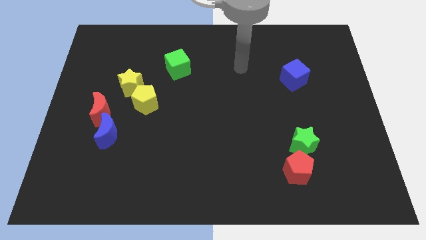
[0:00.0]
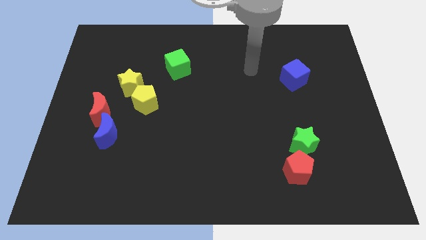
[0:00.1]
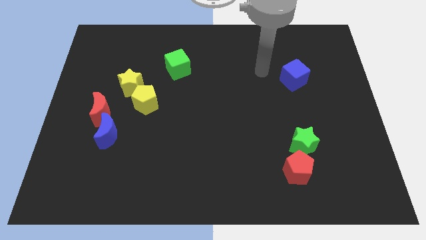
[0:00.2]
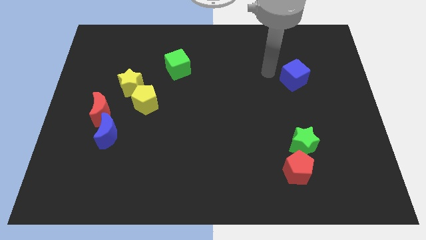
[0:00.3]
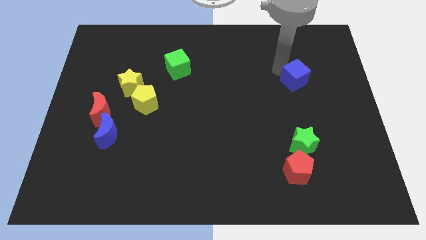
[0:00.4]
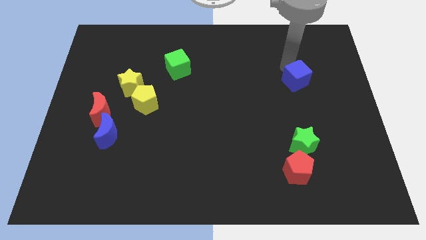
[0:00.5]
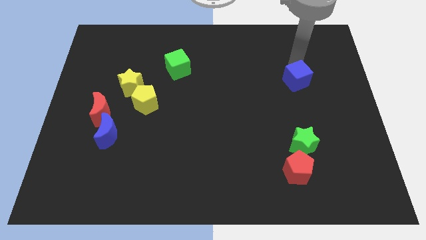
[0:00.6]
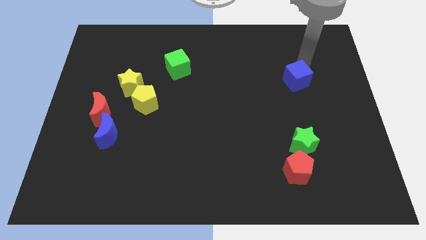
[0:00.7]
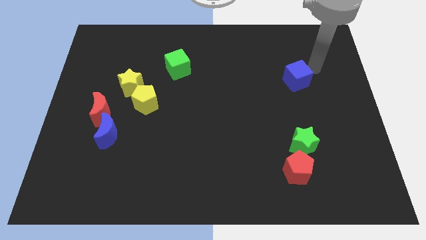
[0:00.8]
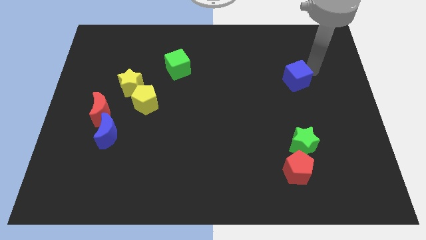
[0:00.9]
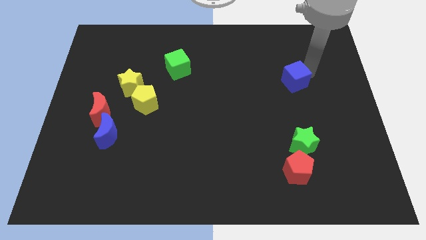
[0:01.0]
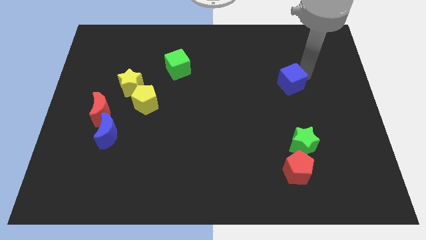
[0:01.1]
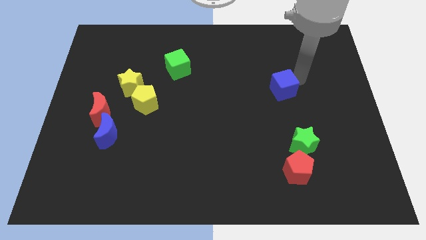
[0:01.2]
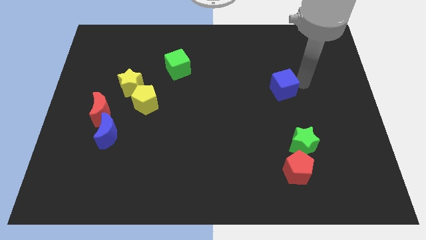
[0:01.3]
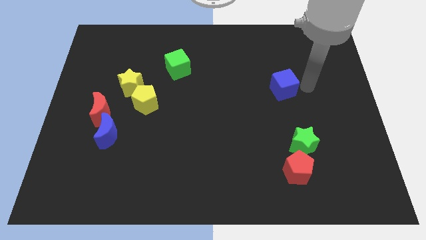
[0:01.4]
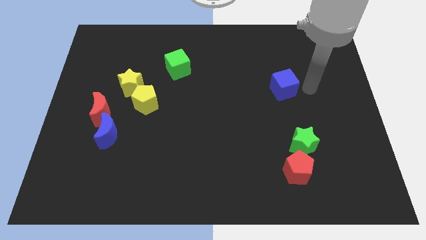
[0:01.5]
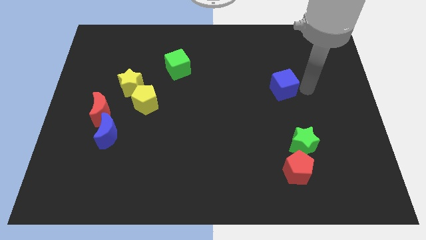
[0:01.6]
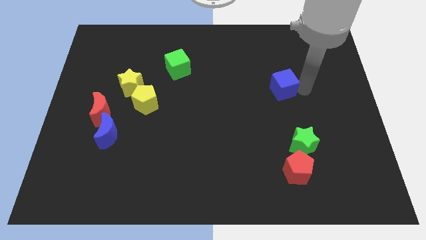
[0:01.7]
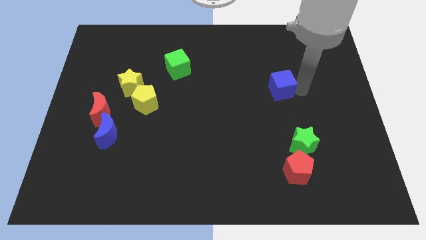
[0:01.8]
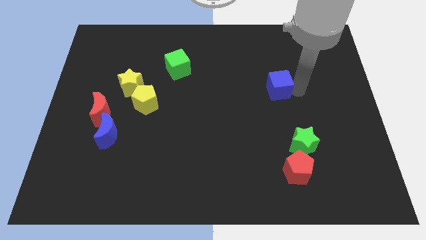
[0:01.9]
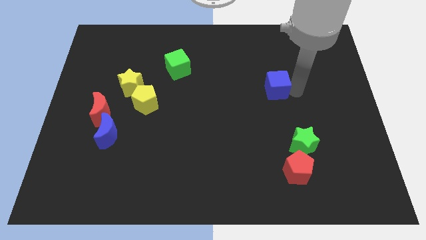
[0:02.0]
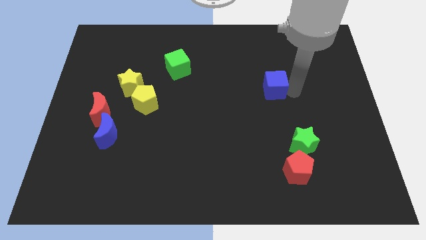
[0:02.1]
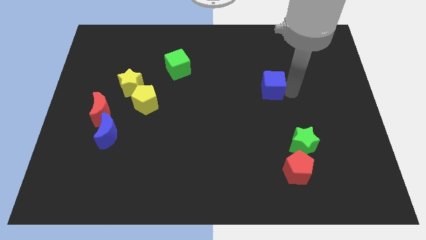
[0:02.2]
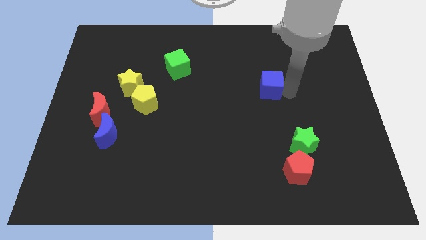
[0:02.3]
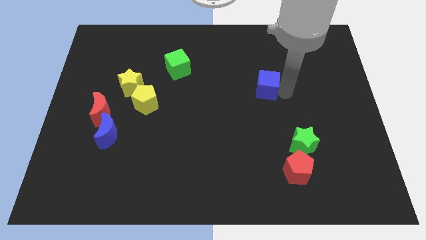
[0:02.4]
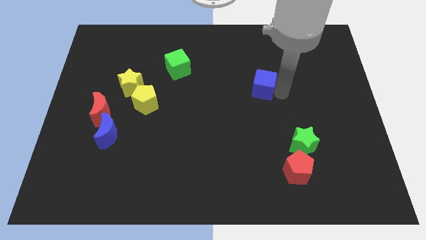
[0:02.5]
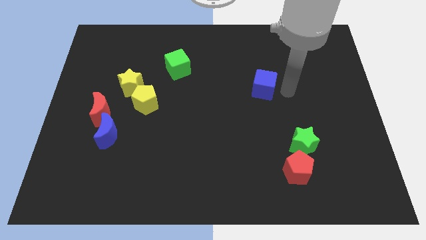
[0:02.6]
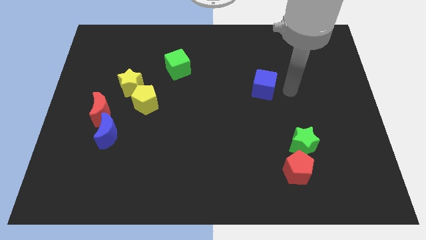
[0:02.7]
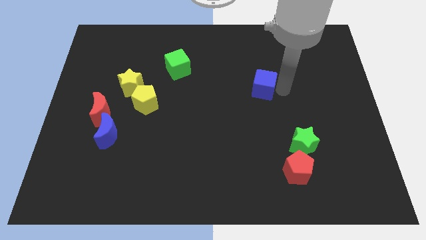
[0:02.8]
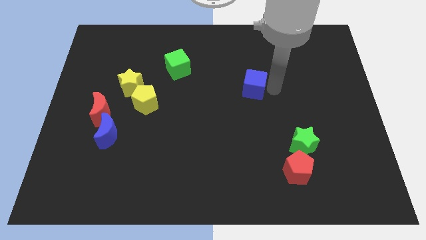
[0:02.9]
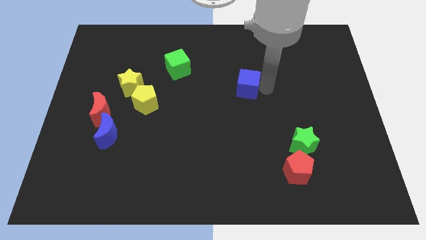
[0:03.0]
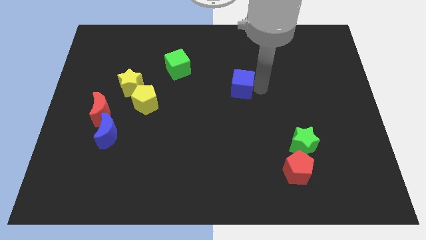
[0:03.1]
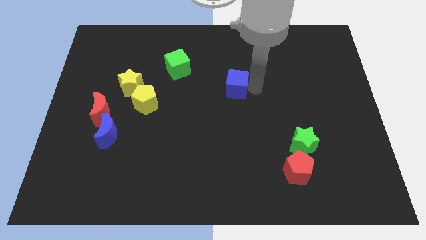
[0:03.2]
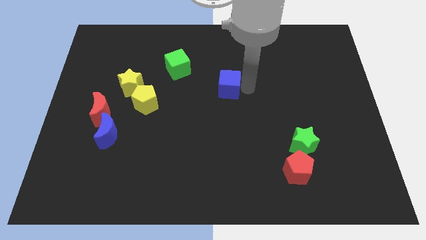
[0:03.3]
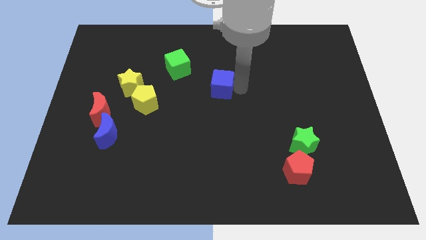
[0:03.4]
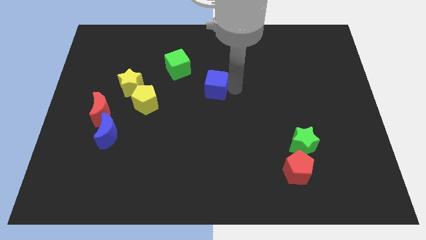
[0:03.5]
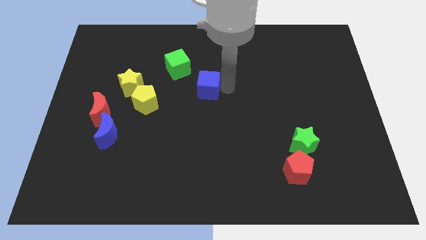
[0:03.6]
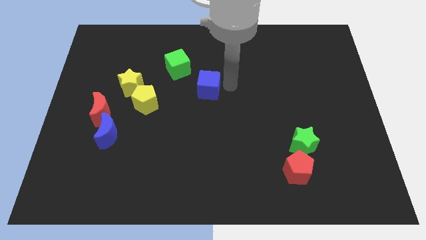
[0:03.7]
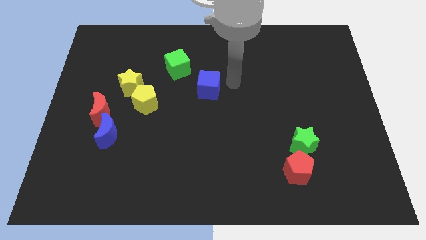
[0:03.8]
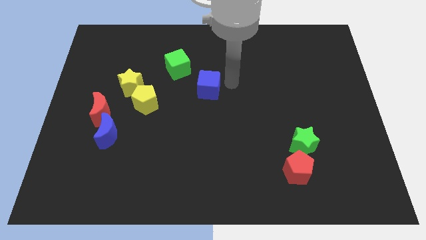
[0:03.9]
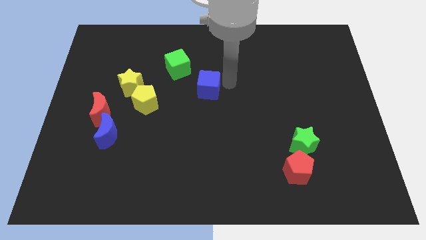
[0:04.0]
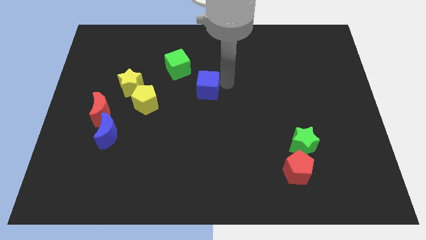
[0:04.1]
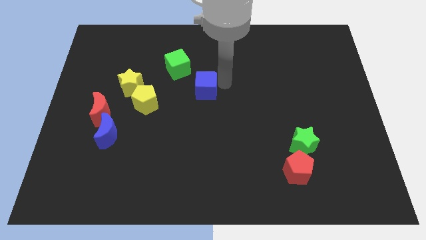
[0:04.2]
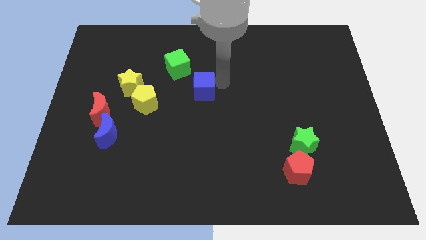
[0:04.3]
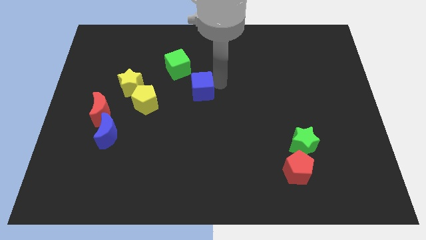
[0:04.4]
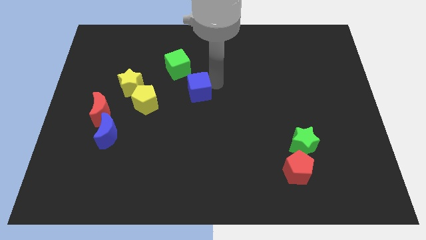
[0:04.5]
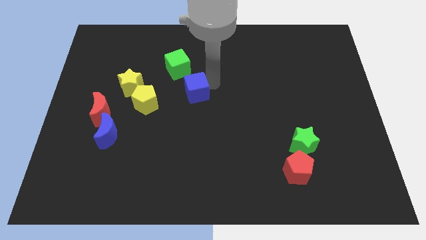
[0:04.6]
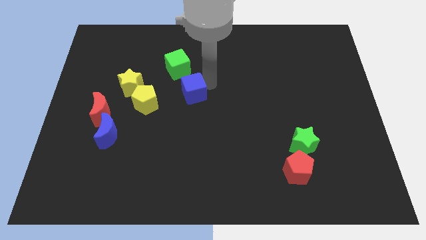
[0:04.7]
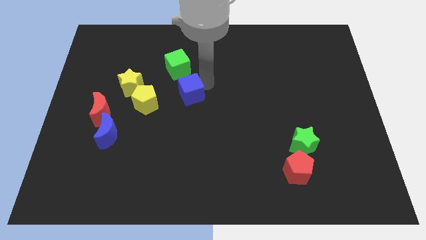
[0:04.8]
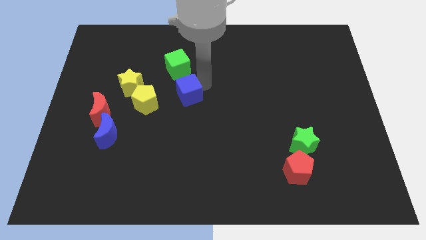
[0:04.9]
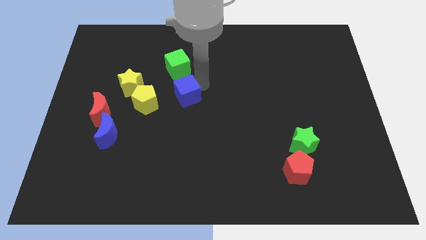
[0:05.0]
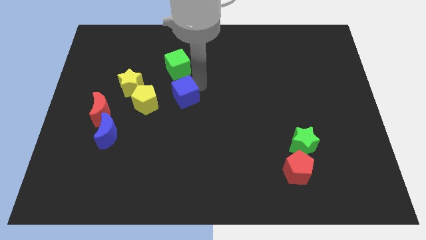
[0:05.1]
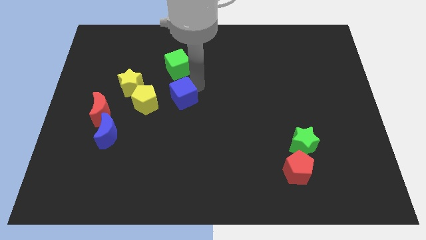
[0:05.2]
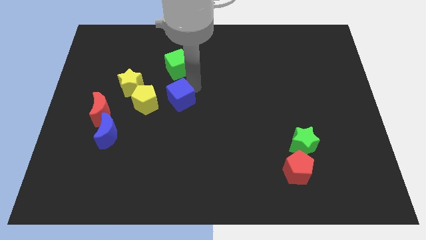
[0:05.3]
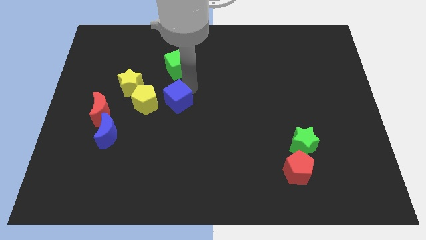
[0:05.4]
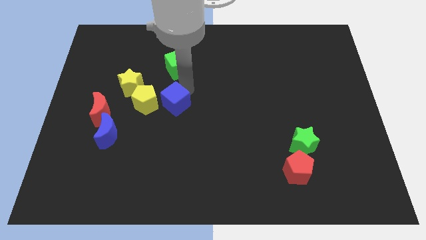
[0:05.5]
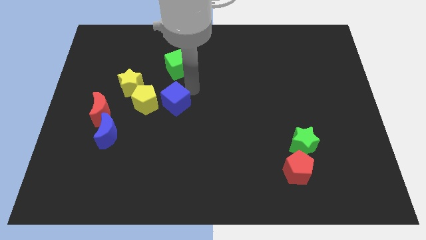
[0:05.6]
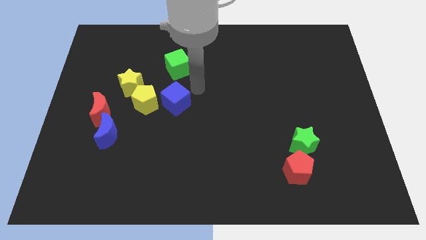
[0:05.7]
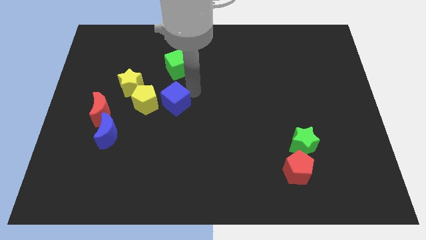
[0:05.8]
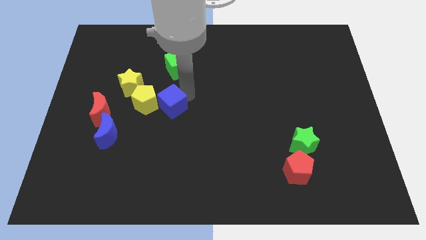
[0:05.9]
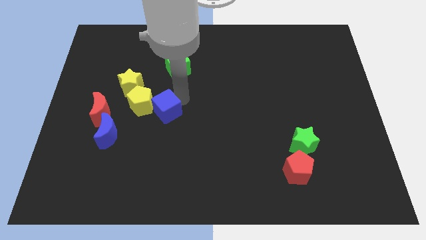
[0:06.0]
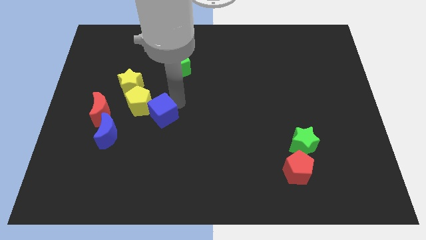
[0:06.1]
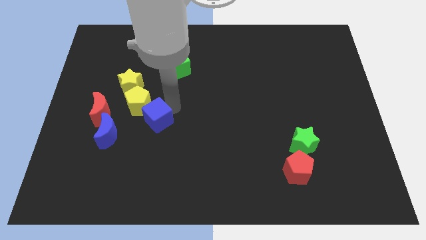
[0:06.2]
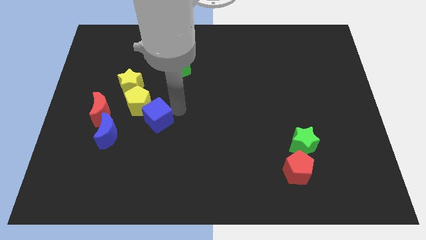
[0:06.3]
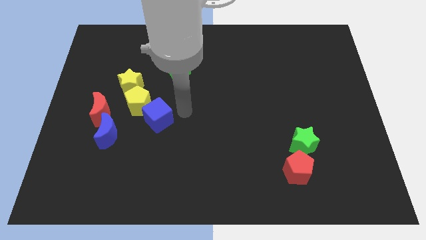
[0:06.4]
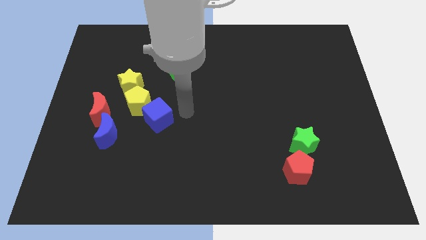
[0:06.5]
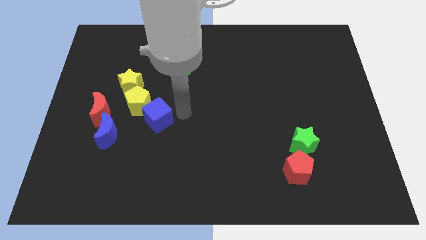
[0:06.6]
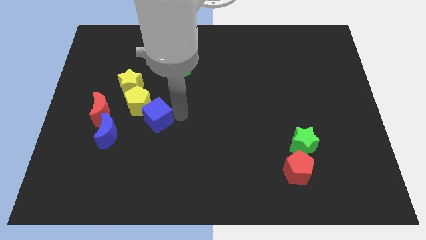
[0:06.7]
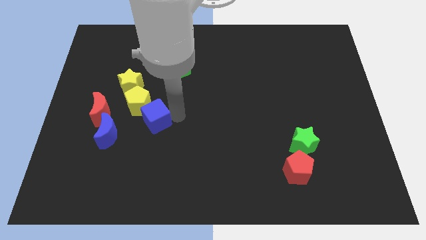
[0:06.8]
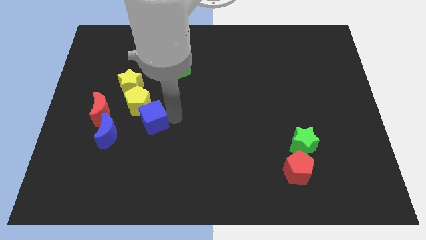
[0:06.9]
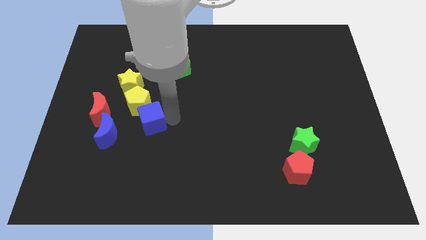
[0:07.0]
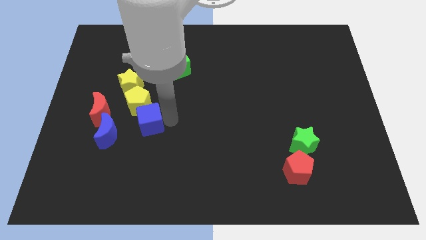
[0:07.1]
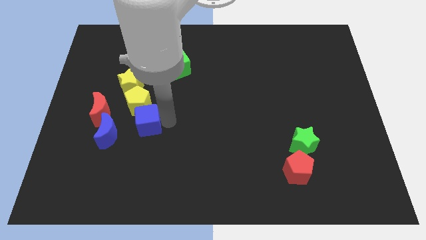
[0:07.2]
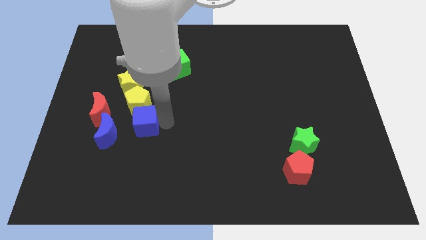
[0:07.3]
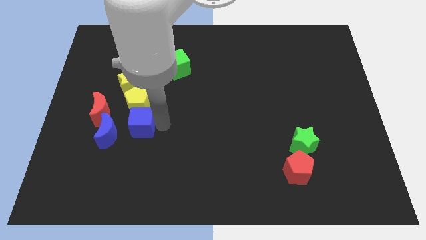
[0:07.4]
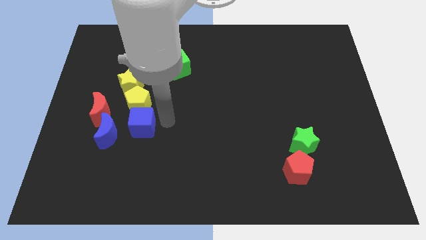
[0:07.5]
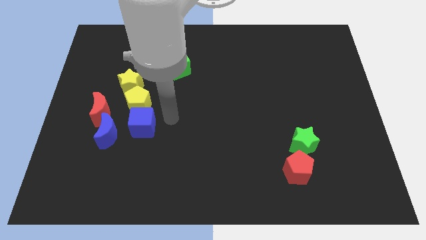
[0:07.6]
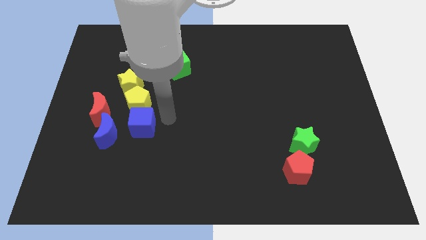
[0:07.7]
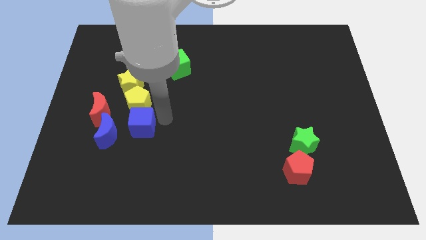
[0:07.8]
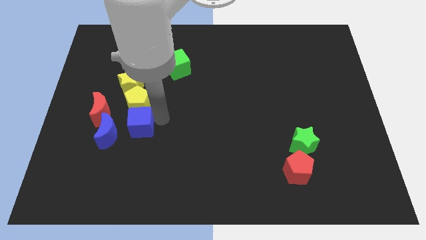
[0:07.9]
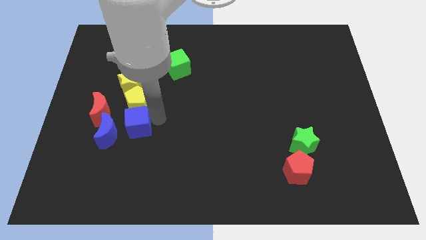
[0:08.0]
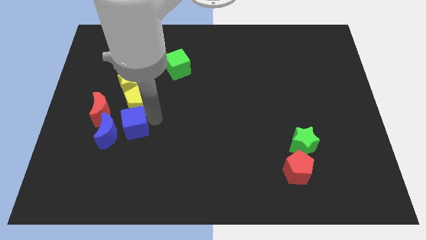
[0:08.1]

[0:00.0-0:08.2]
push the blue cube to the blue moon
